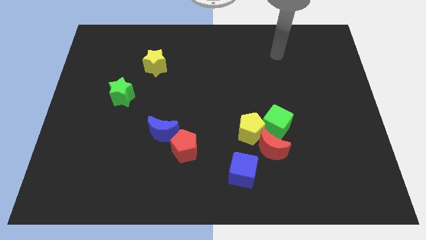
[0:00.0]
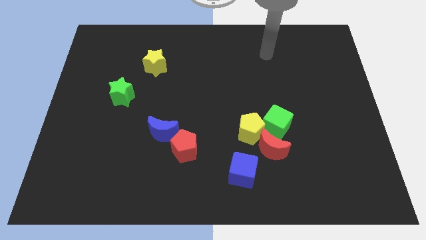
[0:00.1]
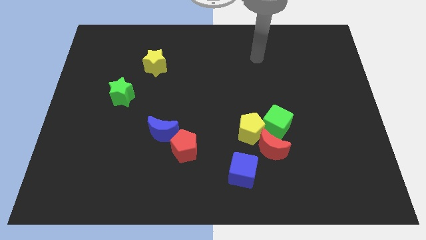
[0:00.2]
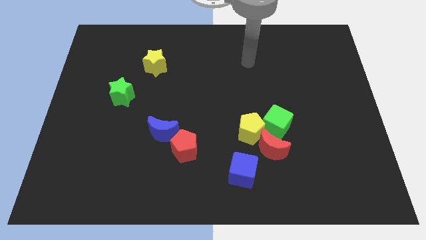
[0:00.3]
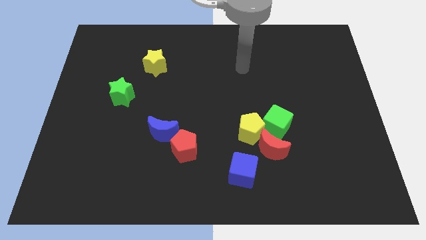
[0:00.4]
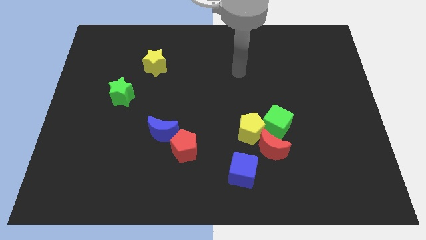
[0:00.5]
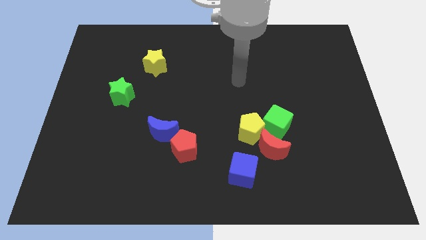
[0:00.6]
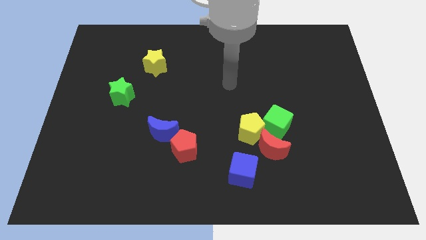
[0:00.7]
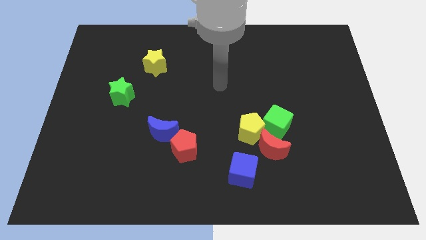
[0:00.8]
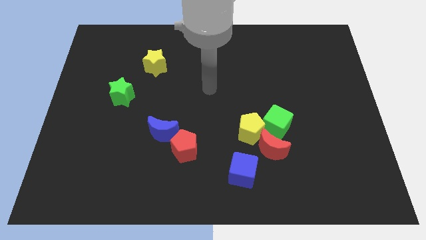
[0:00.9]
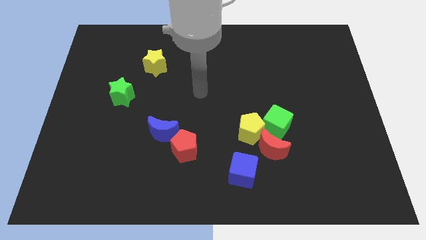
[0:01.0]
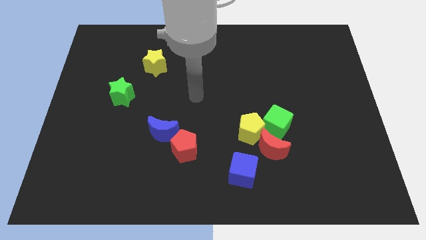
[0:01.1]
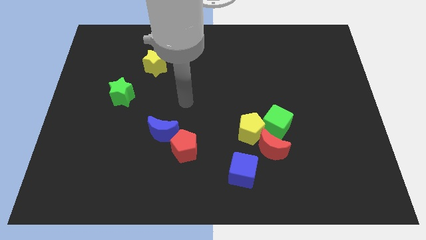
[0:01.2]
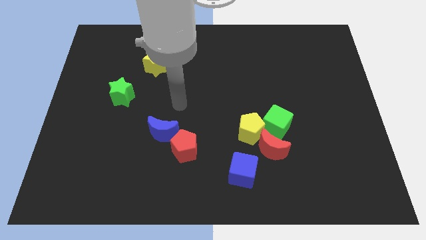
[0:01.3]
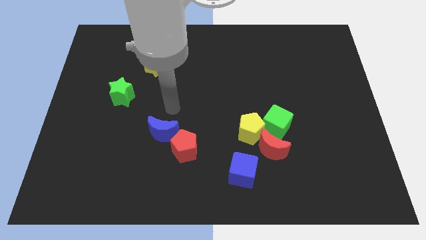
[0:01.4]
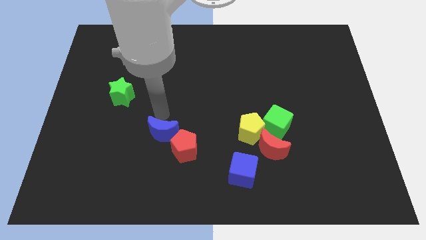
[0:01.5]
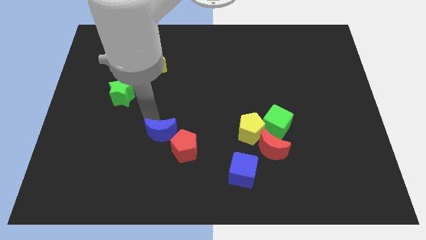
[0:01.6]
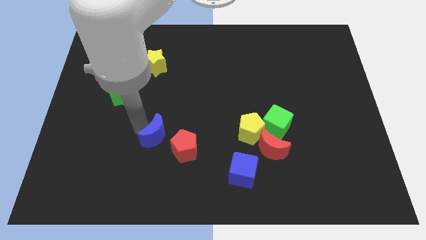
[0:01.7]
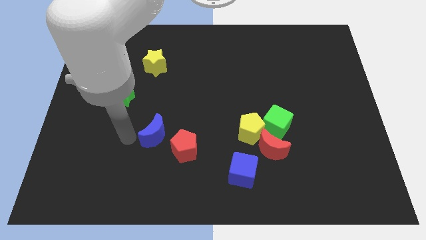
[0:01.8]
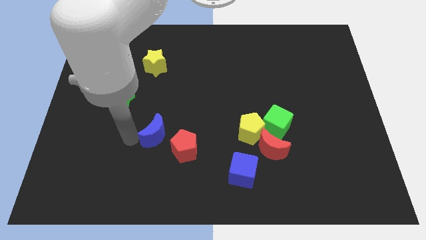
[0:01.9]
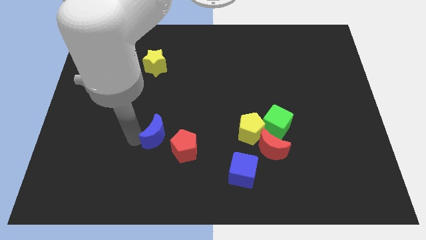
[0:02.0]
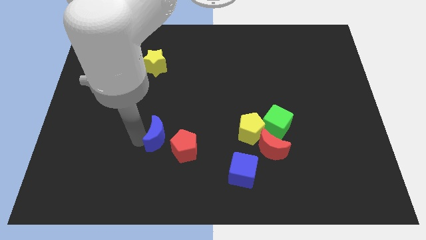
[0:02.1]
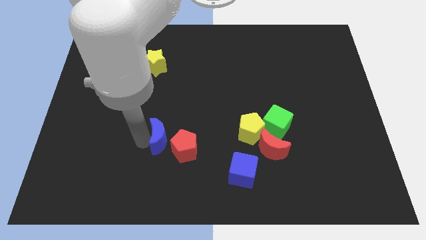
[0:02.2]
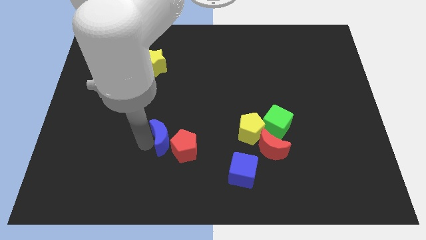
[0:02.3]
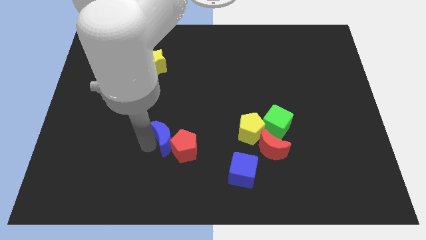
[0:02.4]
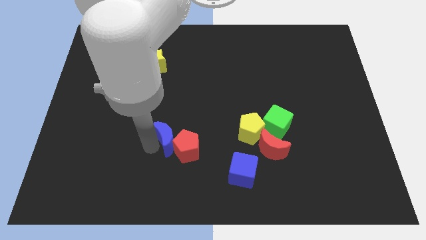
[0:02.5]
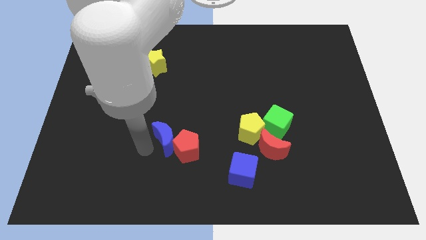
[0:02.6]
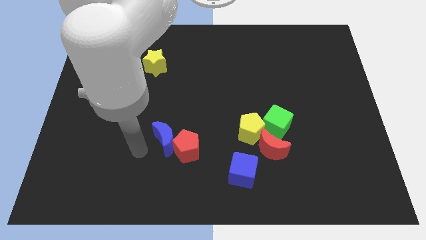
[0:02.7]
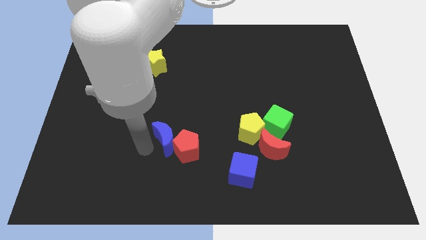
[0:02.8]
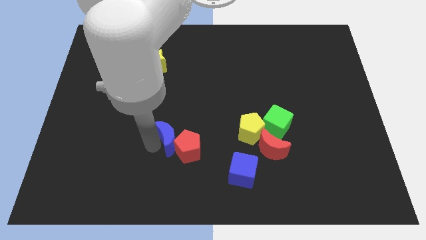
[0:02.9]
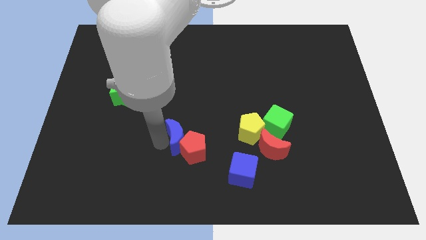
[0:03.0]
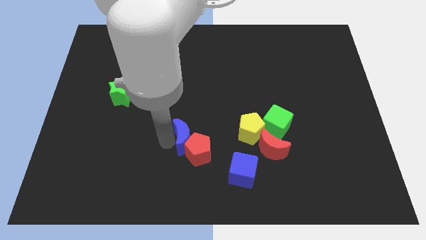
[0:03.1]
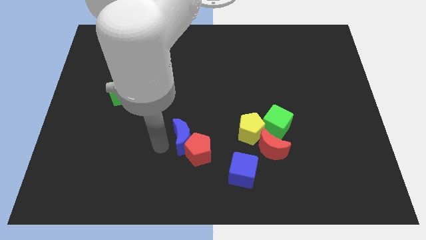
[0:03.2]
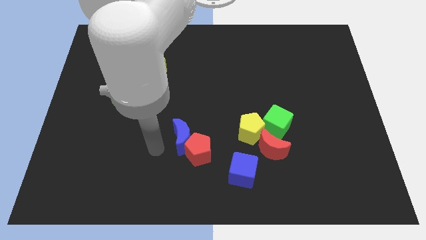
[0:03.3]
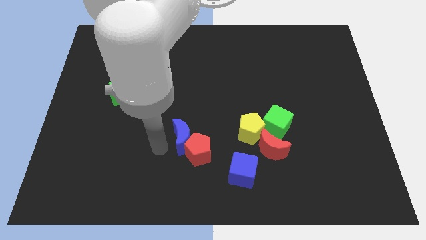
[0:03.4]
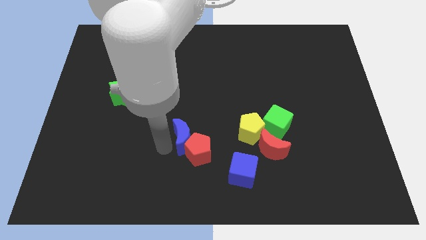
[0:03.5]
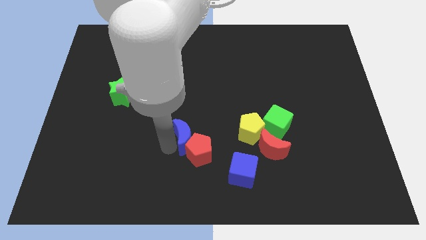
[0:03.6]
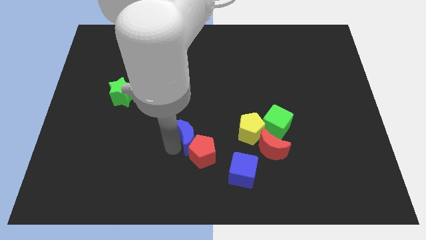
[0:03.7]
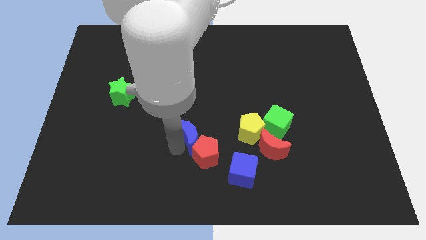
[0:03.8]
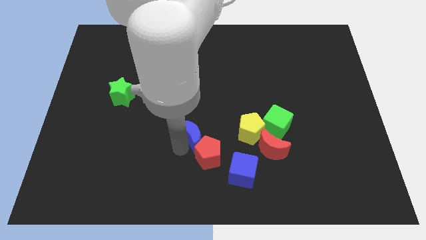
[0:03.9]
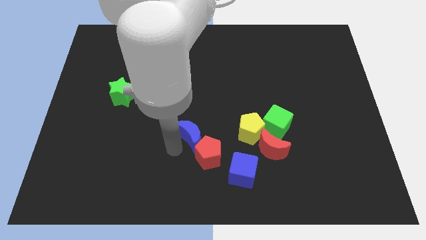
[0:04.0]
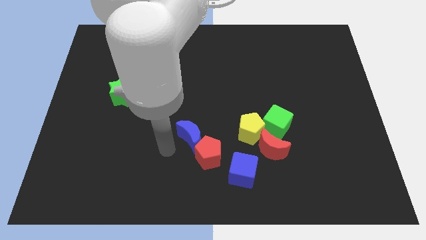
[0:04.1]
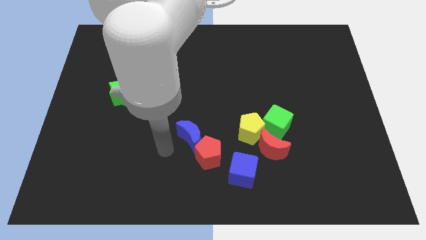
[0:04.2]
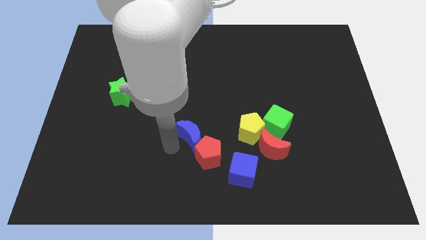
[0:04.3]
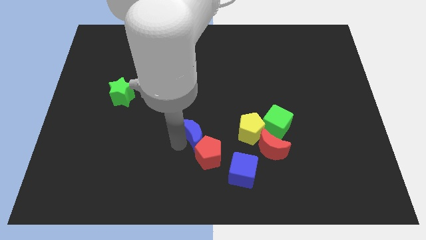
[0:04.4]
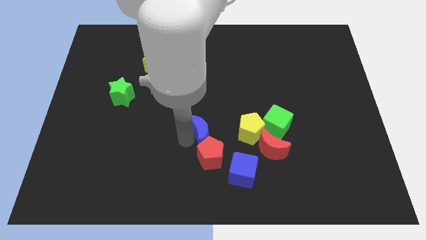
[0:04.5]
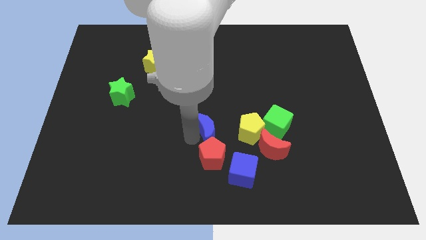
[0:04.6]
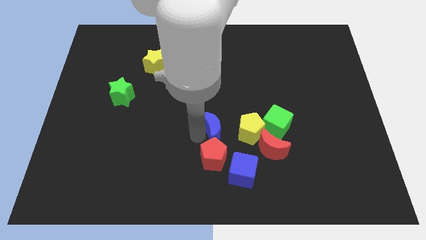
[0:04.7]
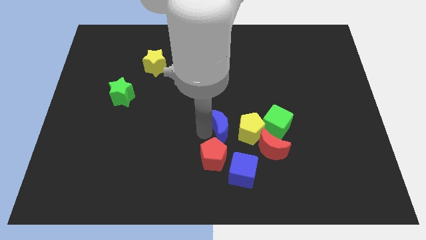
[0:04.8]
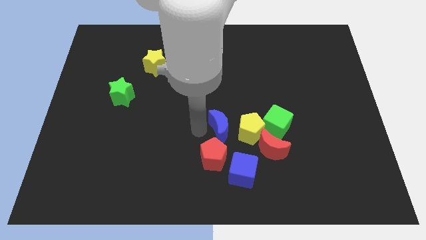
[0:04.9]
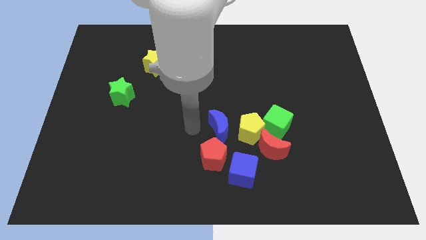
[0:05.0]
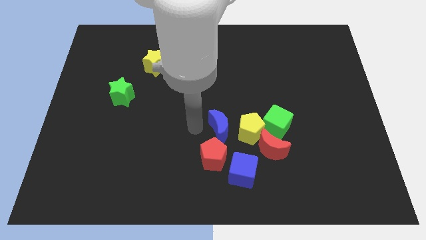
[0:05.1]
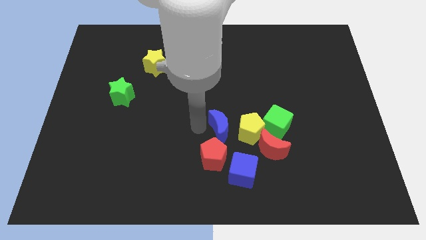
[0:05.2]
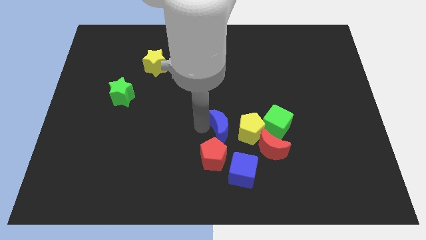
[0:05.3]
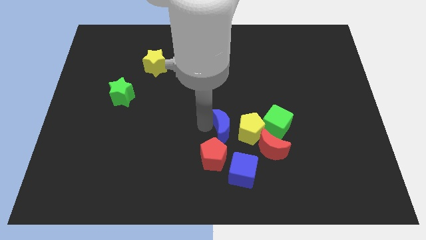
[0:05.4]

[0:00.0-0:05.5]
move the blue moon to the top left side of the red moon

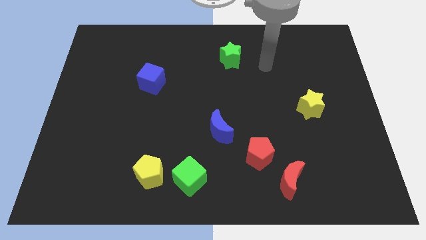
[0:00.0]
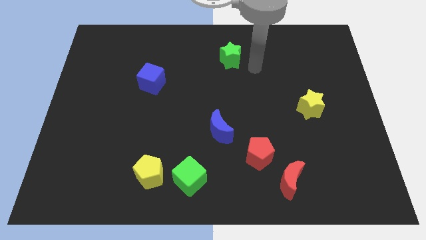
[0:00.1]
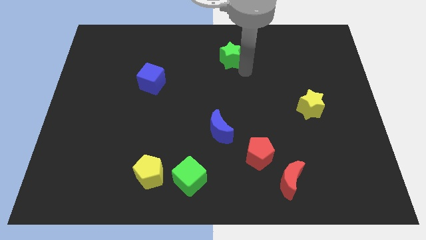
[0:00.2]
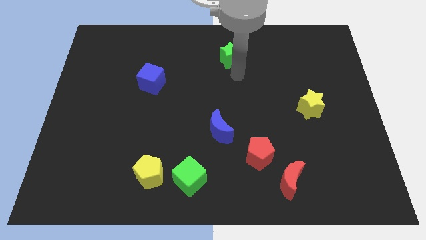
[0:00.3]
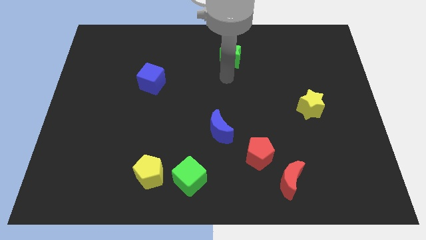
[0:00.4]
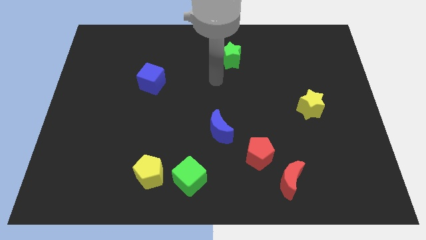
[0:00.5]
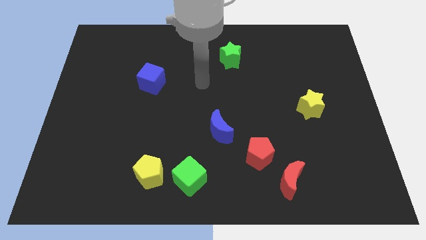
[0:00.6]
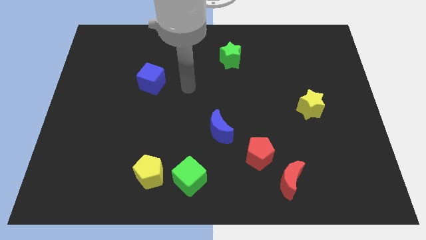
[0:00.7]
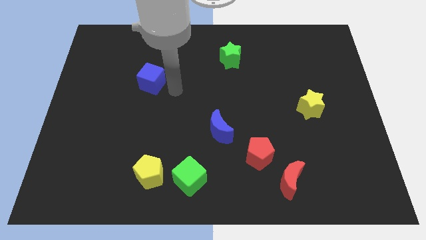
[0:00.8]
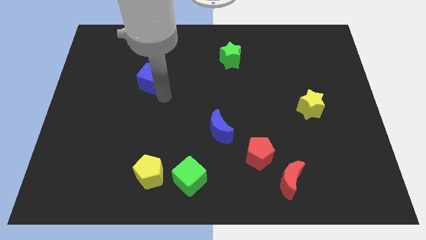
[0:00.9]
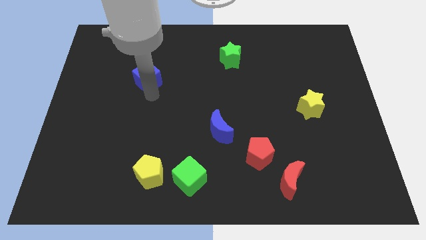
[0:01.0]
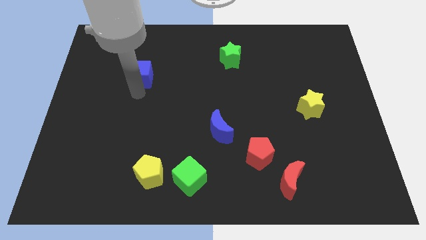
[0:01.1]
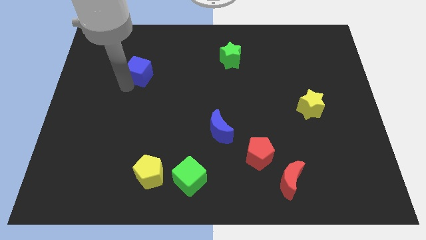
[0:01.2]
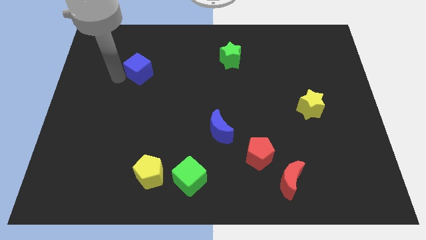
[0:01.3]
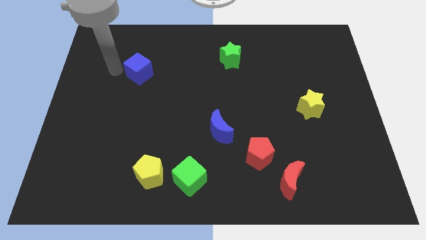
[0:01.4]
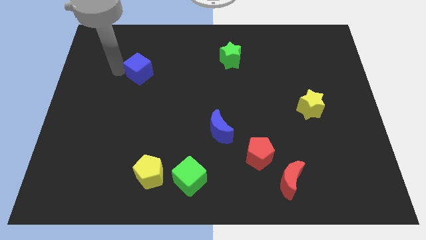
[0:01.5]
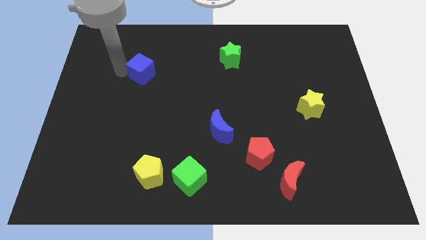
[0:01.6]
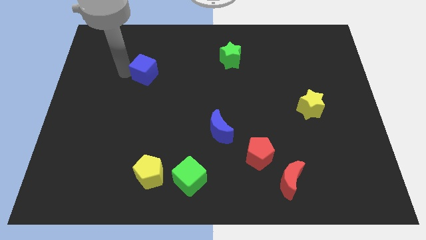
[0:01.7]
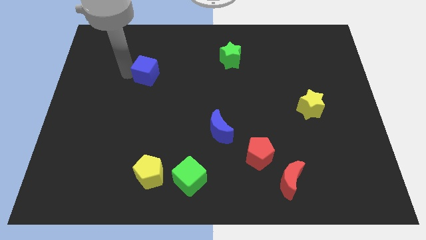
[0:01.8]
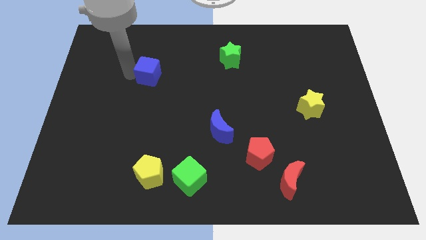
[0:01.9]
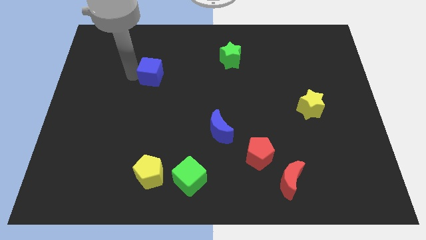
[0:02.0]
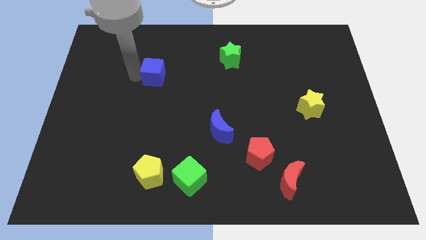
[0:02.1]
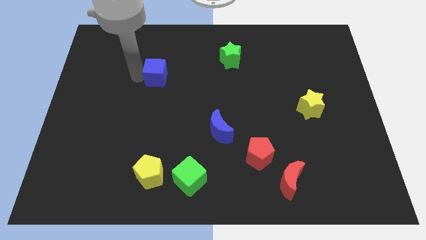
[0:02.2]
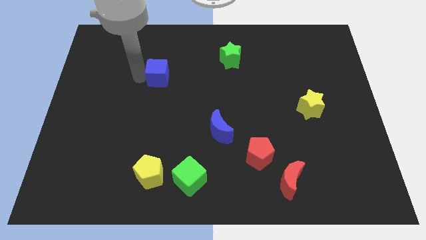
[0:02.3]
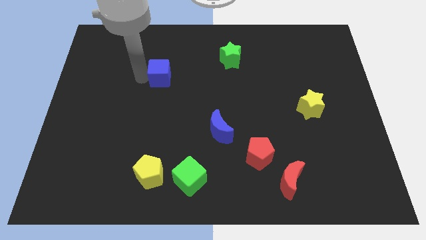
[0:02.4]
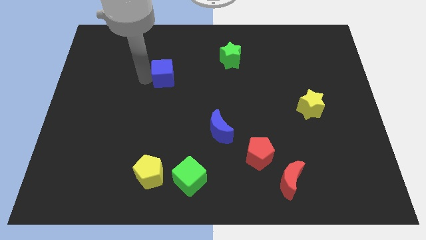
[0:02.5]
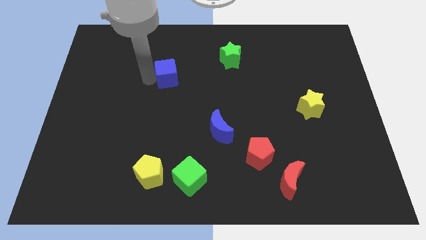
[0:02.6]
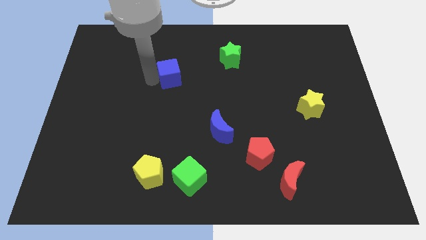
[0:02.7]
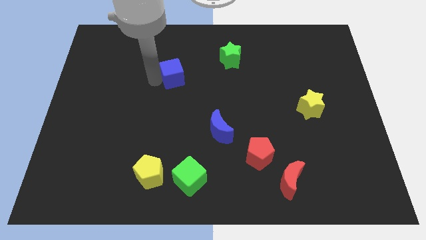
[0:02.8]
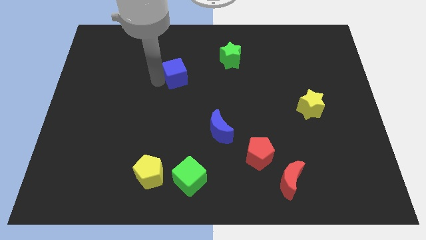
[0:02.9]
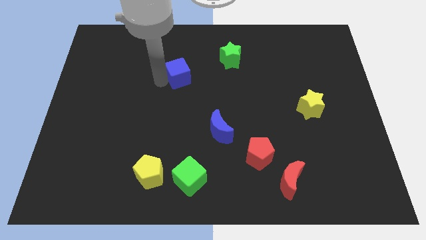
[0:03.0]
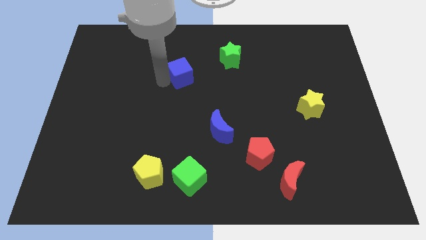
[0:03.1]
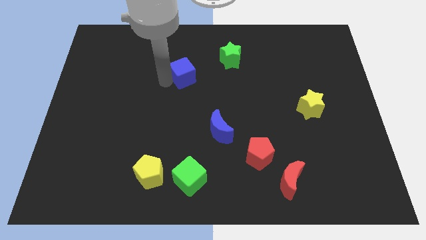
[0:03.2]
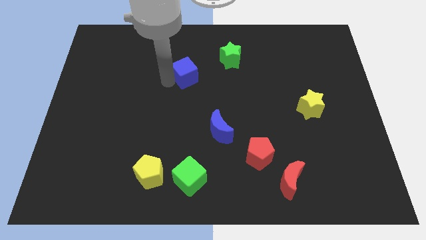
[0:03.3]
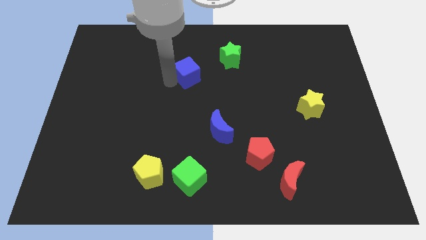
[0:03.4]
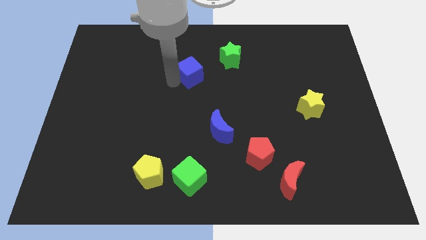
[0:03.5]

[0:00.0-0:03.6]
put the blue cube to the bottom left of the green star
